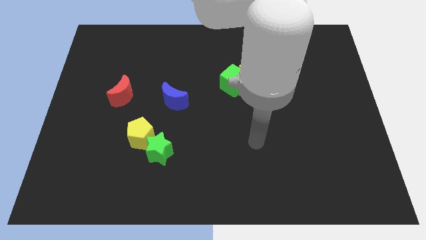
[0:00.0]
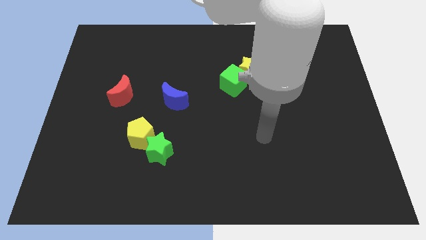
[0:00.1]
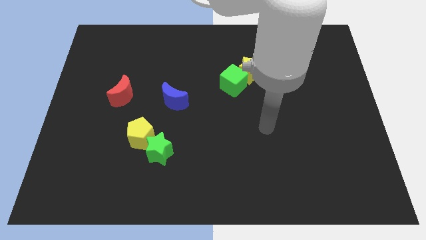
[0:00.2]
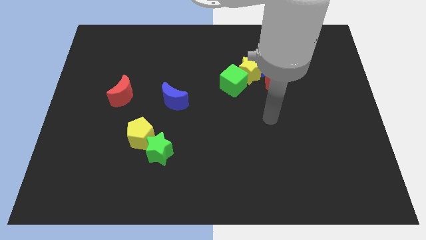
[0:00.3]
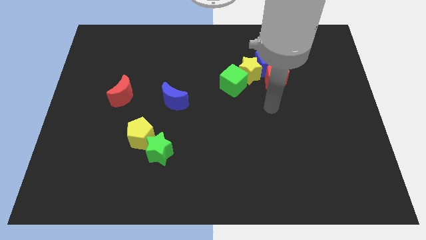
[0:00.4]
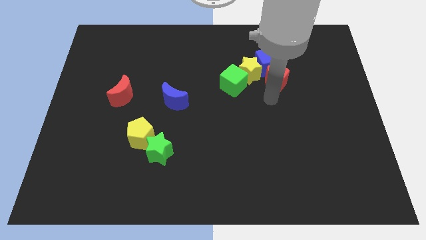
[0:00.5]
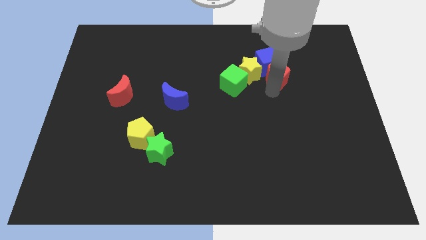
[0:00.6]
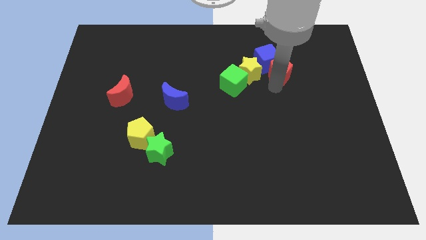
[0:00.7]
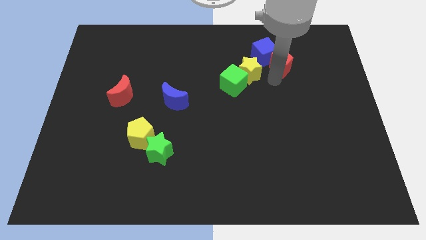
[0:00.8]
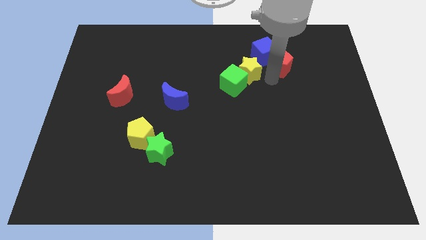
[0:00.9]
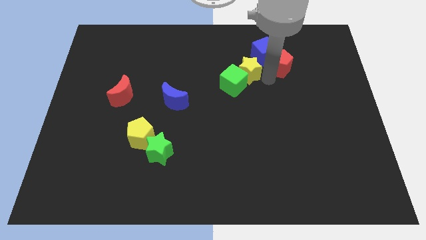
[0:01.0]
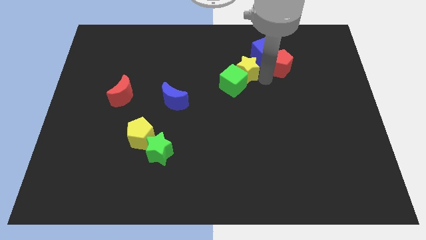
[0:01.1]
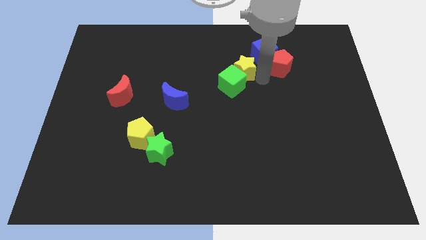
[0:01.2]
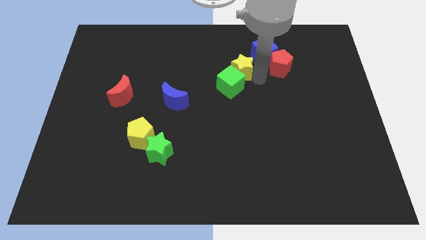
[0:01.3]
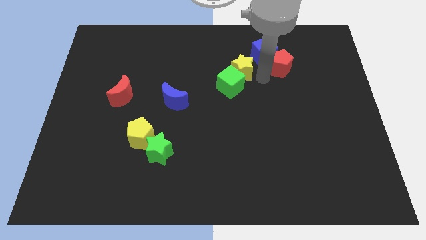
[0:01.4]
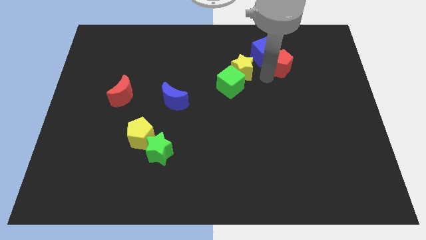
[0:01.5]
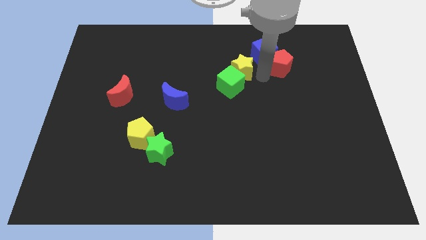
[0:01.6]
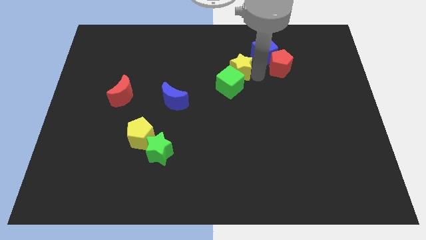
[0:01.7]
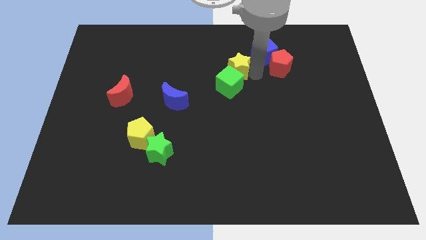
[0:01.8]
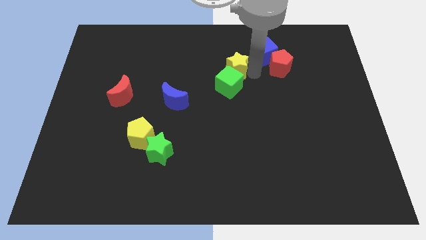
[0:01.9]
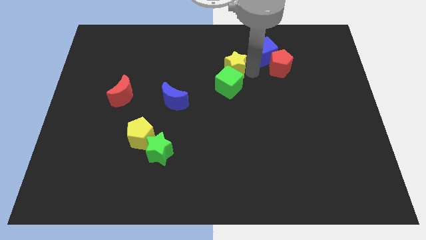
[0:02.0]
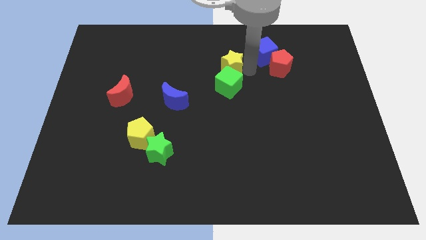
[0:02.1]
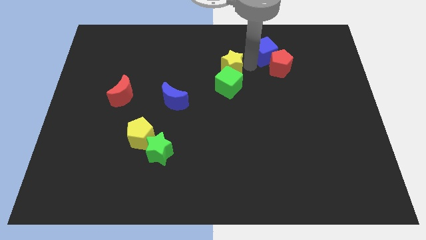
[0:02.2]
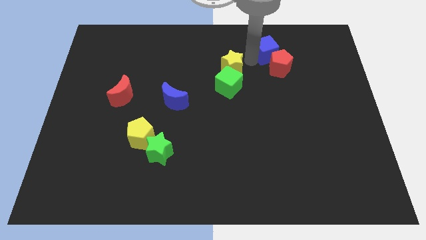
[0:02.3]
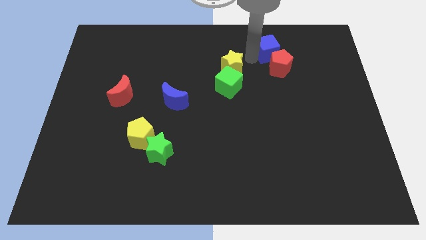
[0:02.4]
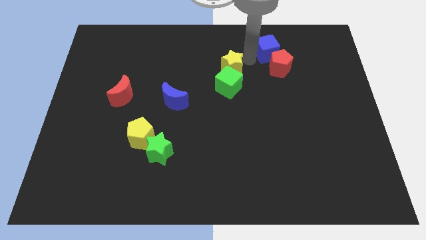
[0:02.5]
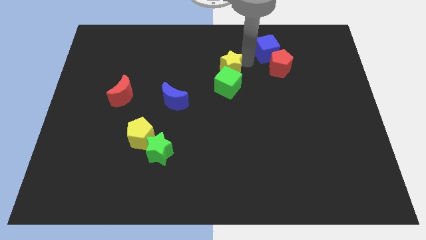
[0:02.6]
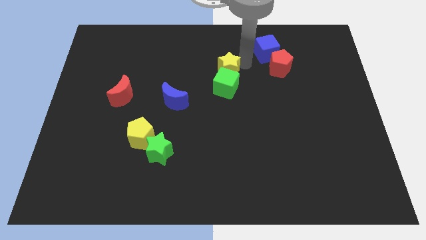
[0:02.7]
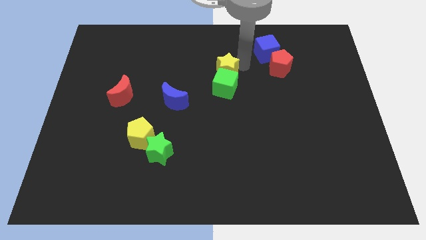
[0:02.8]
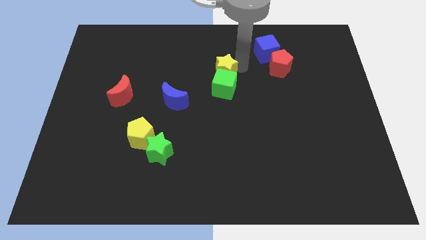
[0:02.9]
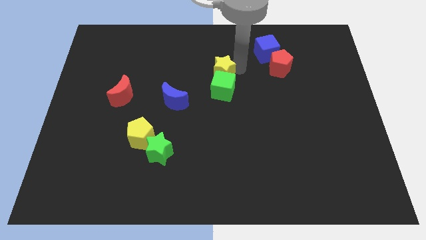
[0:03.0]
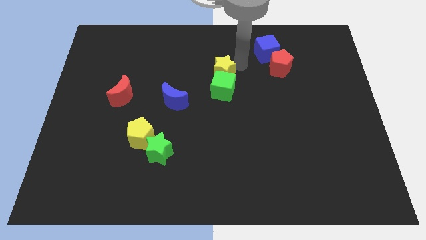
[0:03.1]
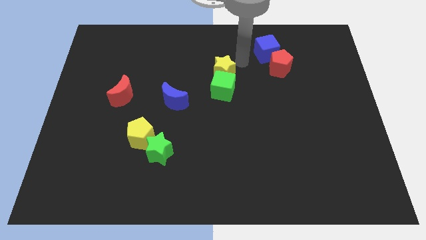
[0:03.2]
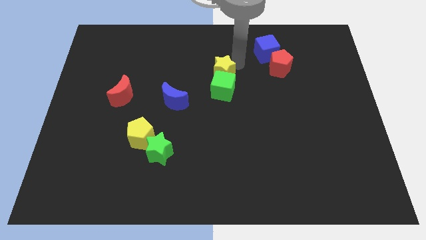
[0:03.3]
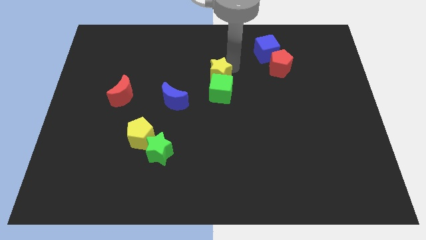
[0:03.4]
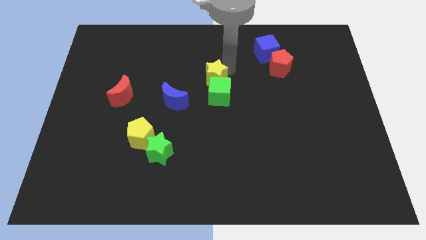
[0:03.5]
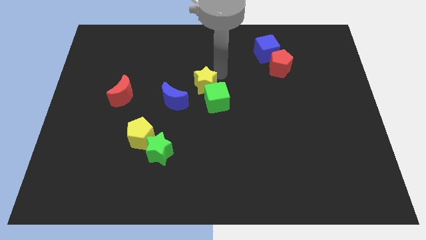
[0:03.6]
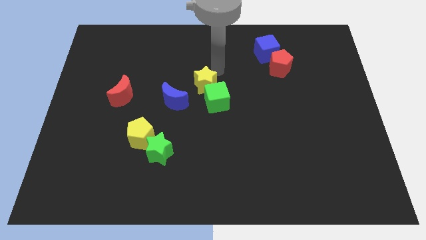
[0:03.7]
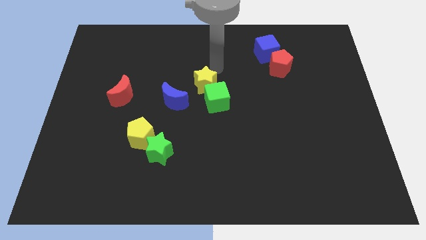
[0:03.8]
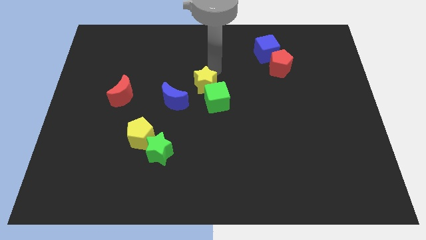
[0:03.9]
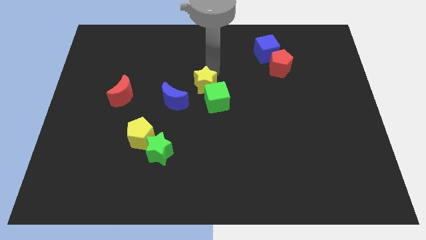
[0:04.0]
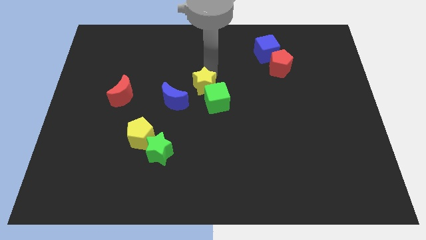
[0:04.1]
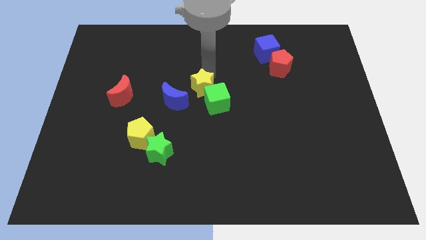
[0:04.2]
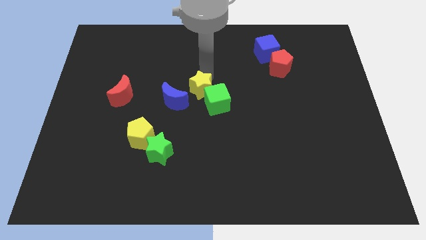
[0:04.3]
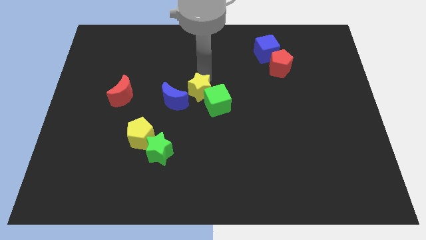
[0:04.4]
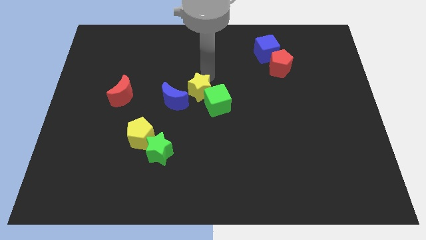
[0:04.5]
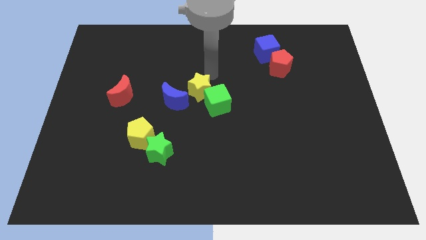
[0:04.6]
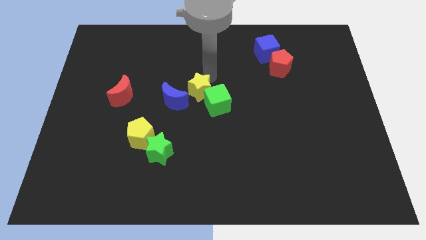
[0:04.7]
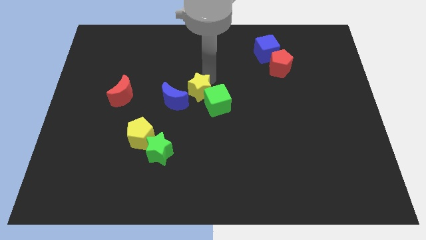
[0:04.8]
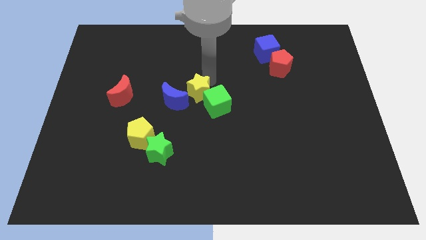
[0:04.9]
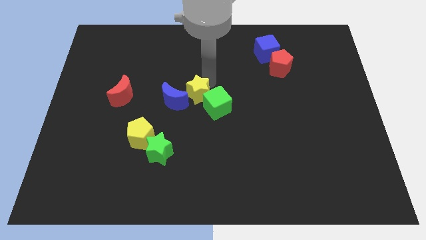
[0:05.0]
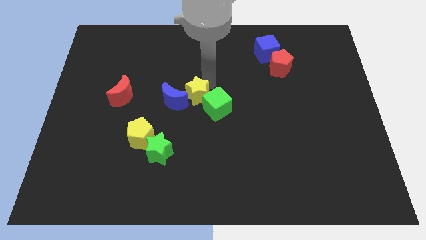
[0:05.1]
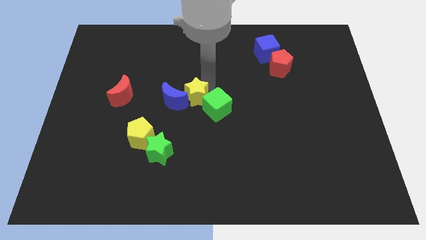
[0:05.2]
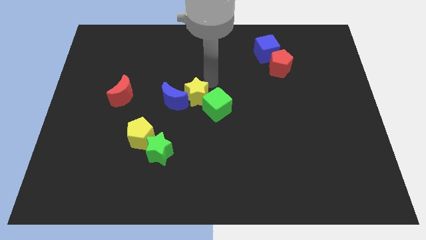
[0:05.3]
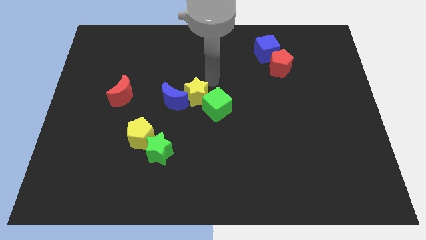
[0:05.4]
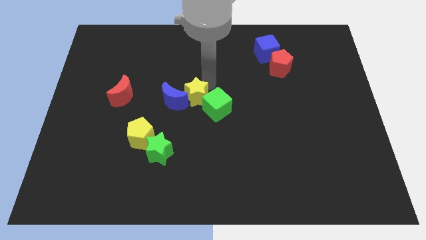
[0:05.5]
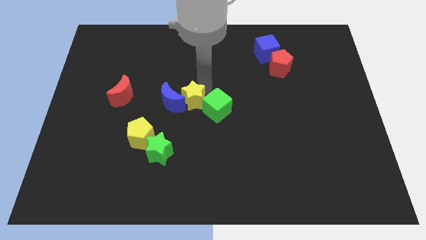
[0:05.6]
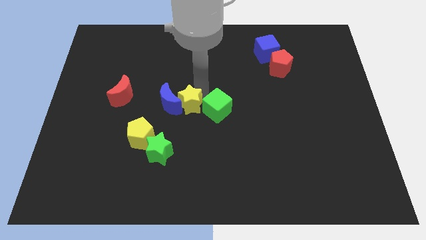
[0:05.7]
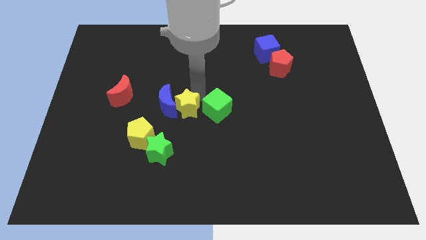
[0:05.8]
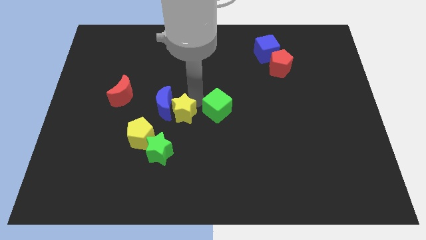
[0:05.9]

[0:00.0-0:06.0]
slide the yellow star above the green star
